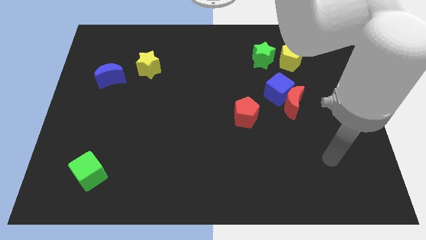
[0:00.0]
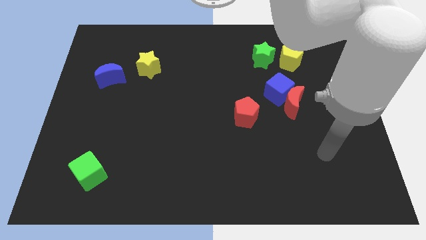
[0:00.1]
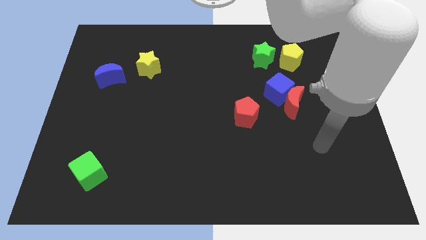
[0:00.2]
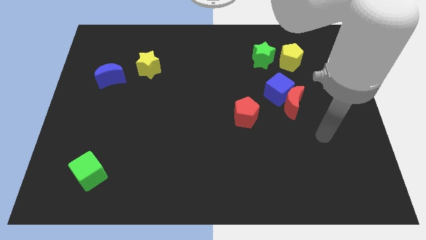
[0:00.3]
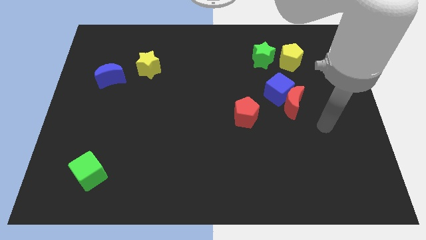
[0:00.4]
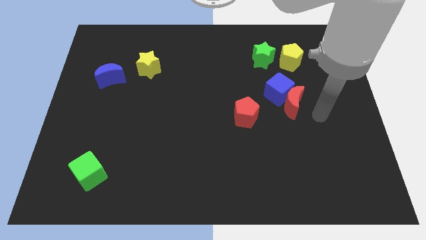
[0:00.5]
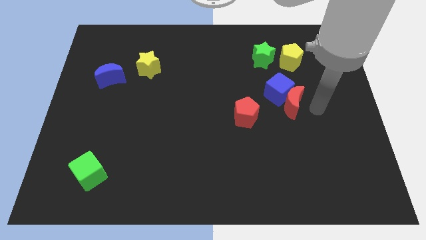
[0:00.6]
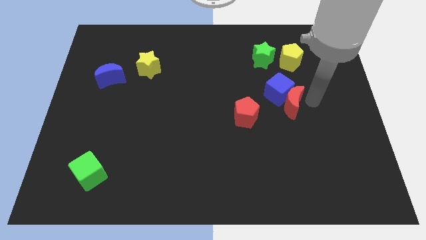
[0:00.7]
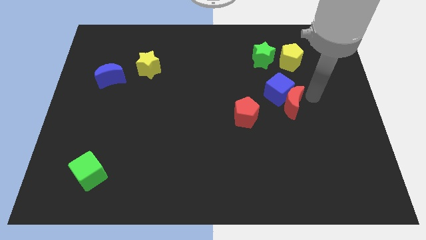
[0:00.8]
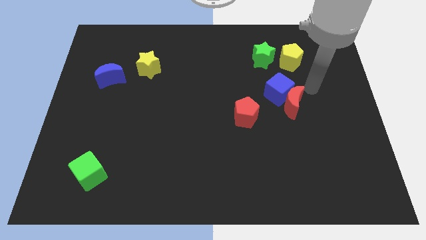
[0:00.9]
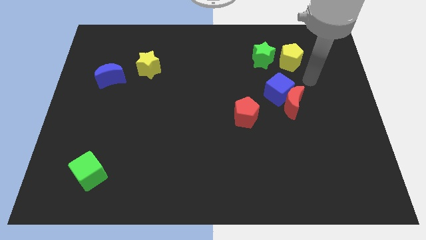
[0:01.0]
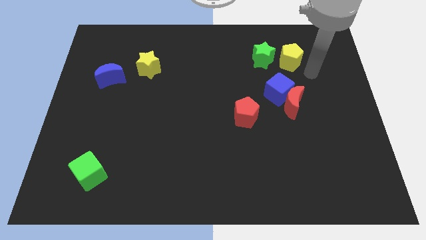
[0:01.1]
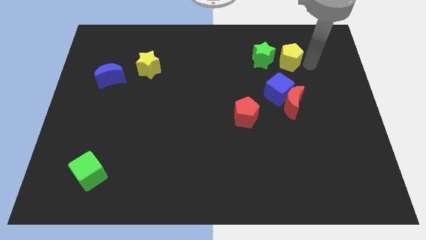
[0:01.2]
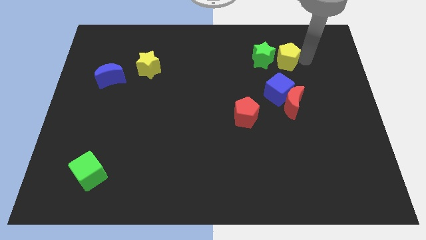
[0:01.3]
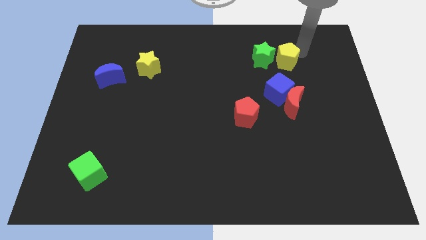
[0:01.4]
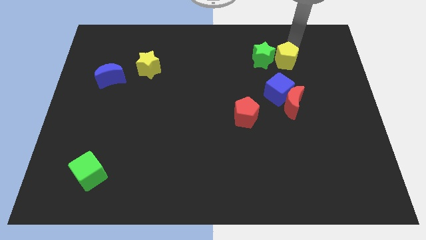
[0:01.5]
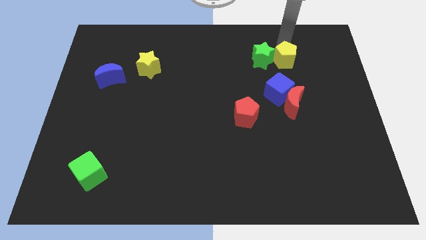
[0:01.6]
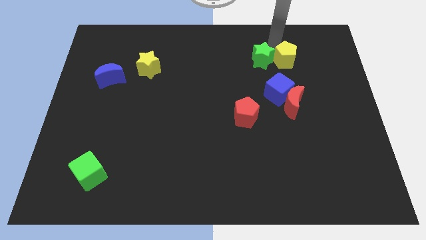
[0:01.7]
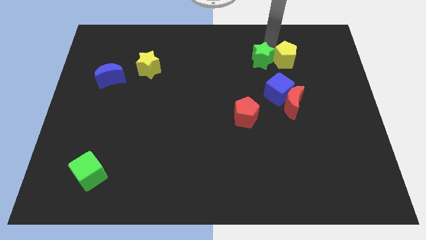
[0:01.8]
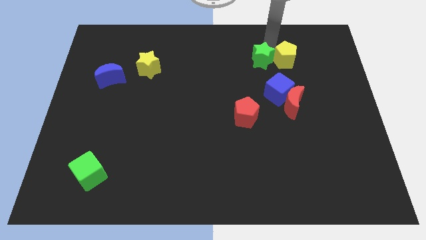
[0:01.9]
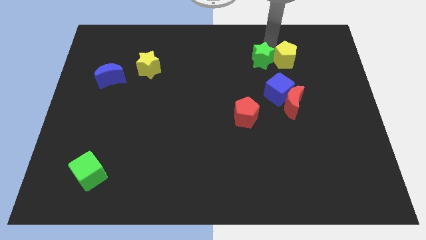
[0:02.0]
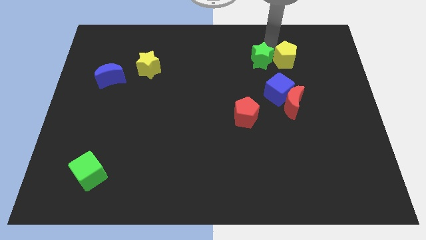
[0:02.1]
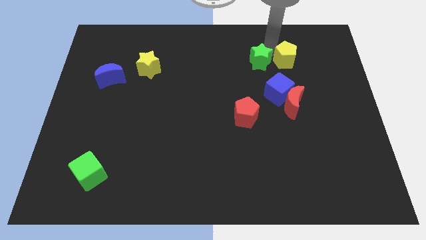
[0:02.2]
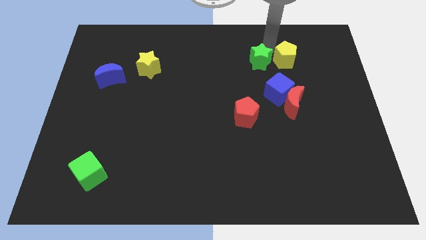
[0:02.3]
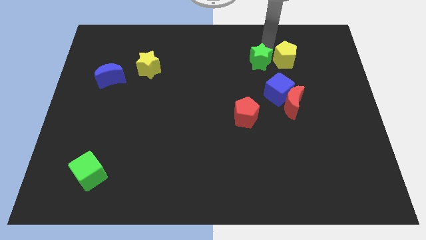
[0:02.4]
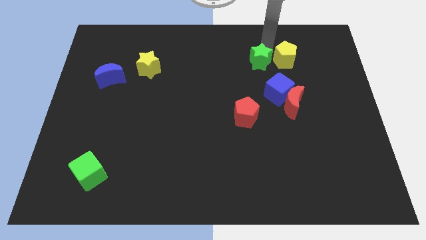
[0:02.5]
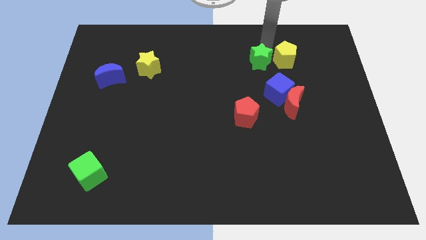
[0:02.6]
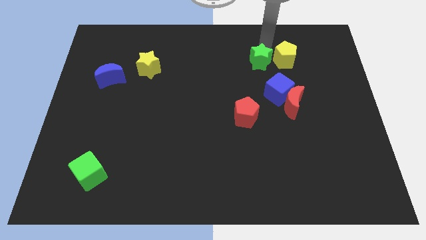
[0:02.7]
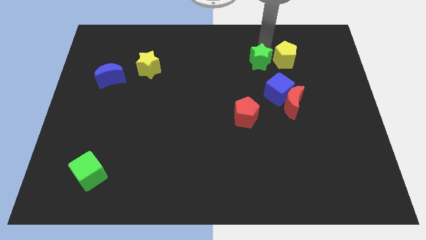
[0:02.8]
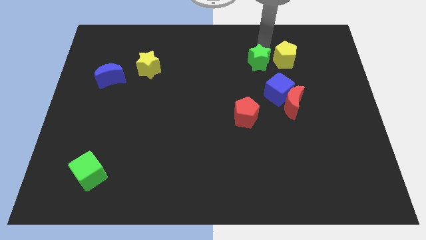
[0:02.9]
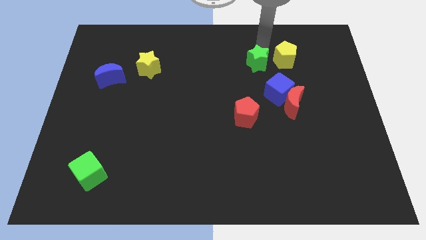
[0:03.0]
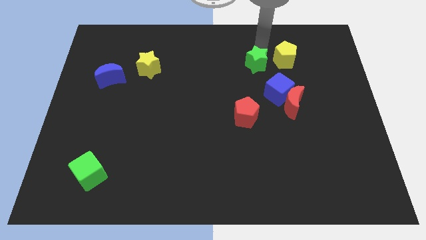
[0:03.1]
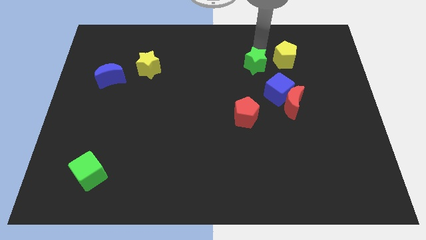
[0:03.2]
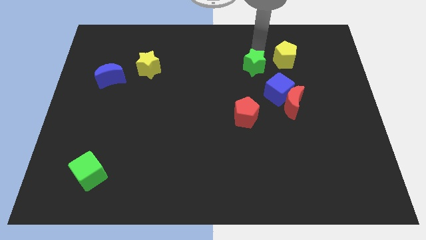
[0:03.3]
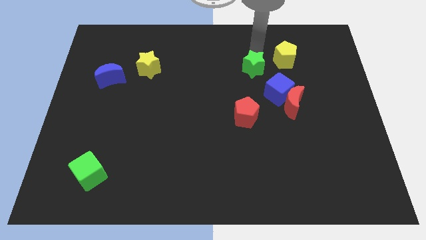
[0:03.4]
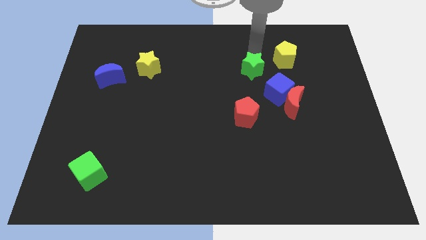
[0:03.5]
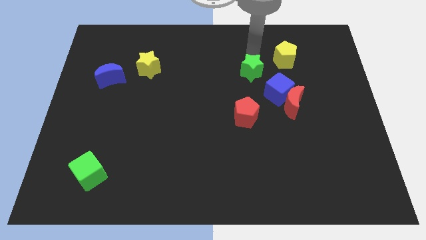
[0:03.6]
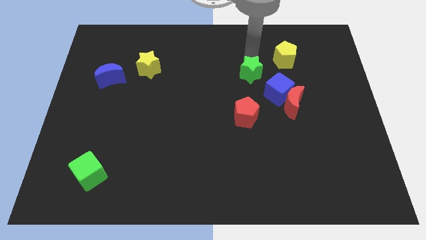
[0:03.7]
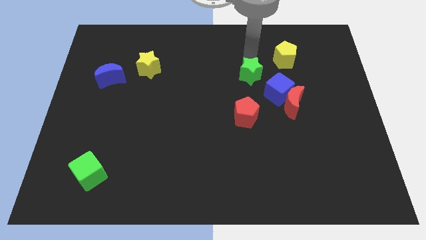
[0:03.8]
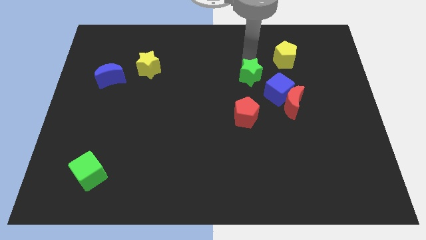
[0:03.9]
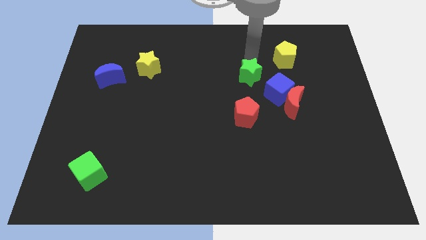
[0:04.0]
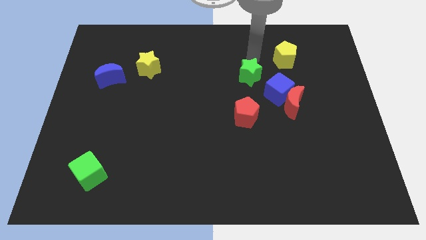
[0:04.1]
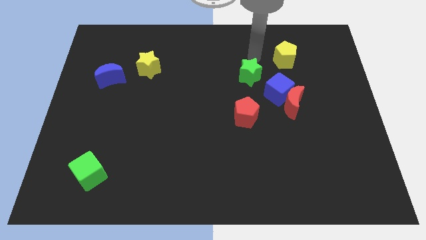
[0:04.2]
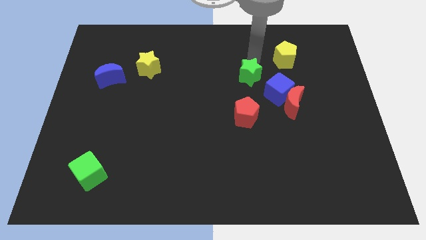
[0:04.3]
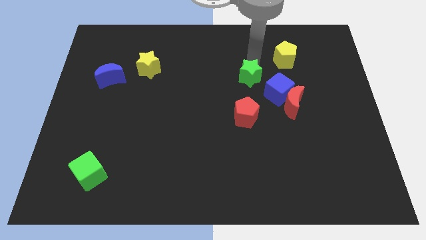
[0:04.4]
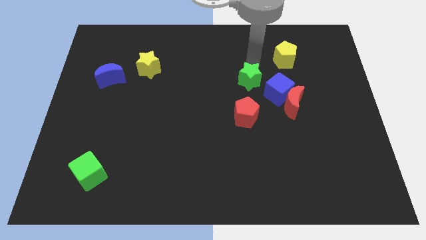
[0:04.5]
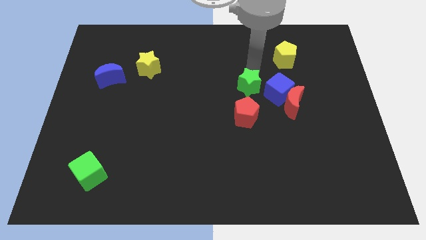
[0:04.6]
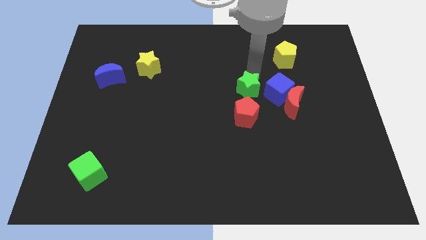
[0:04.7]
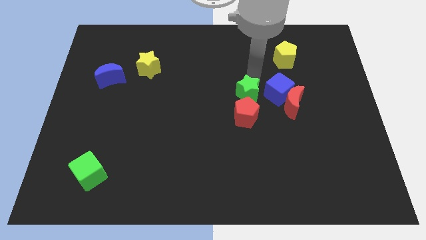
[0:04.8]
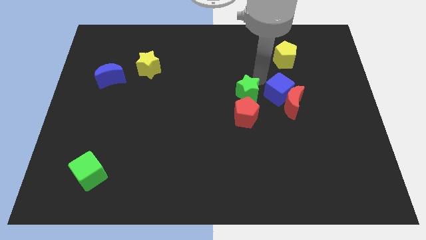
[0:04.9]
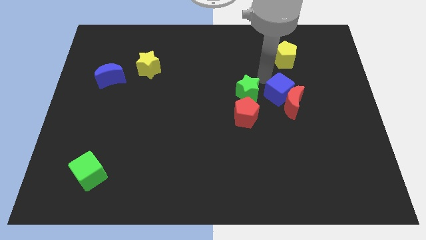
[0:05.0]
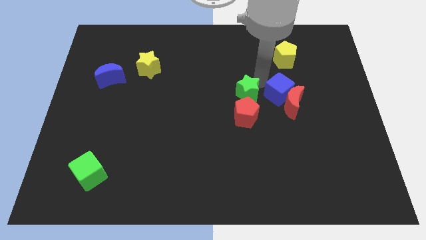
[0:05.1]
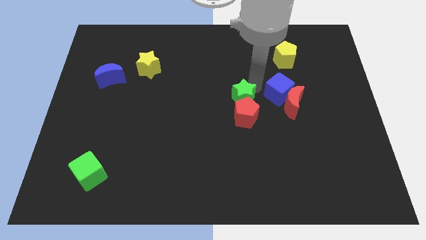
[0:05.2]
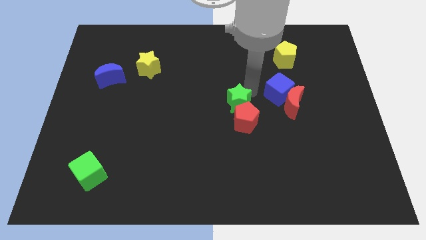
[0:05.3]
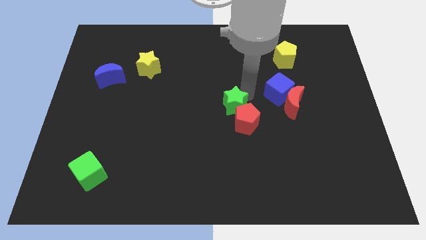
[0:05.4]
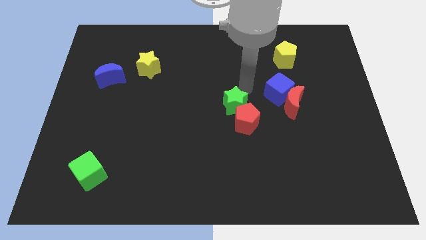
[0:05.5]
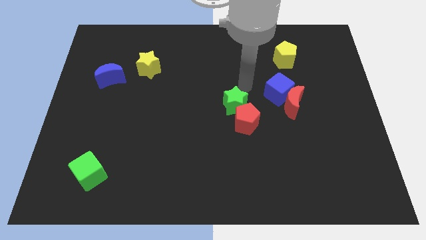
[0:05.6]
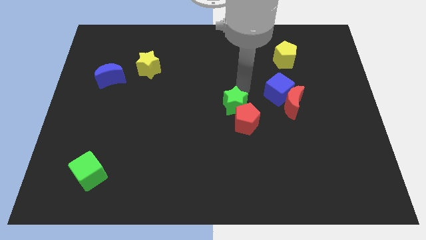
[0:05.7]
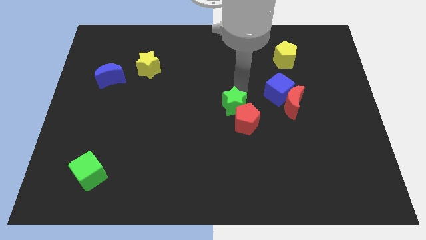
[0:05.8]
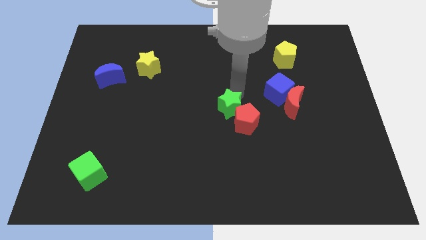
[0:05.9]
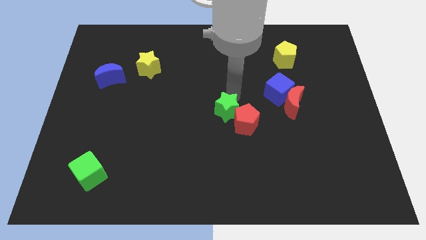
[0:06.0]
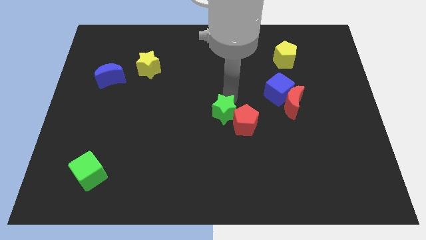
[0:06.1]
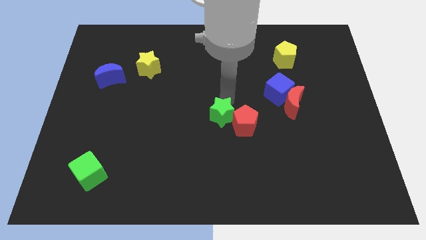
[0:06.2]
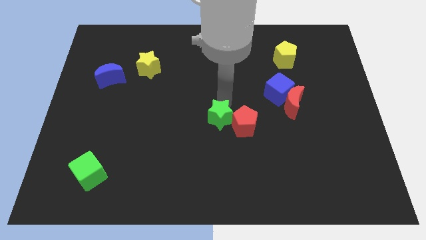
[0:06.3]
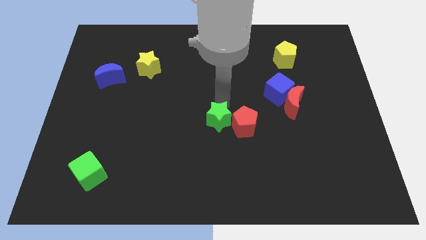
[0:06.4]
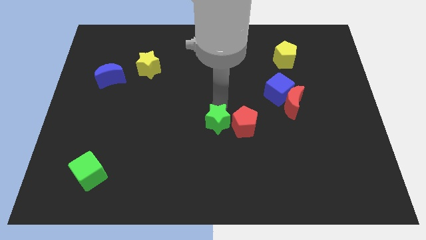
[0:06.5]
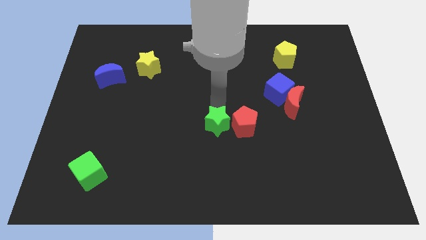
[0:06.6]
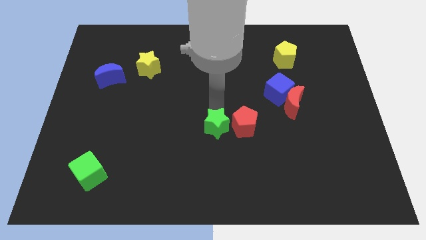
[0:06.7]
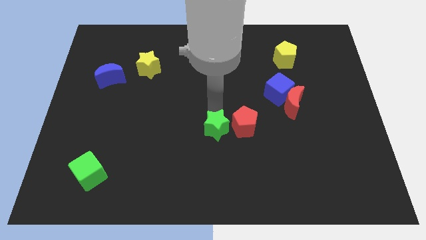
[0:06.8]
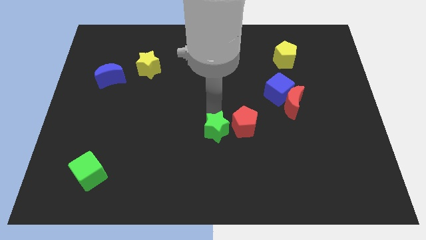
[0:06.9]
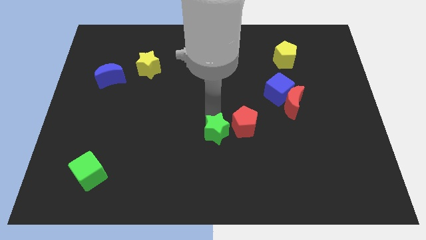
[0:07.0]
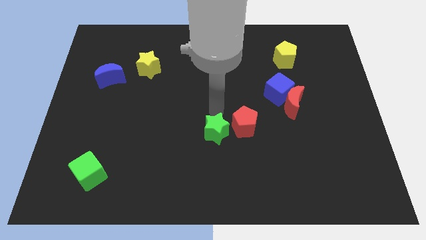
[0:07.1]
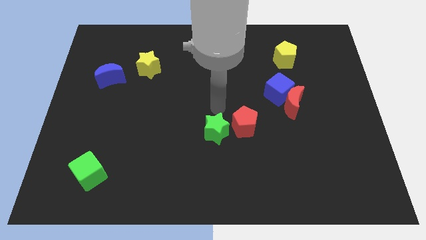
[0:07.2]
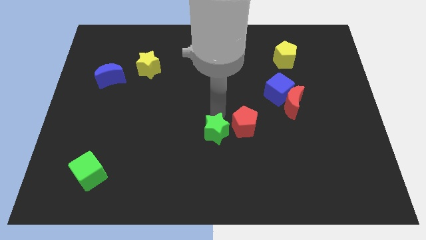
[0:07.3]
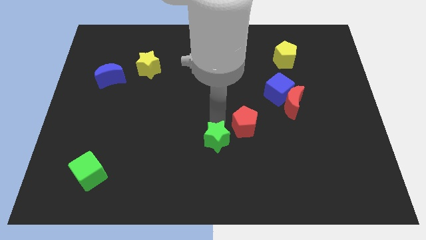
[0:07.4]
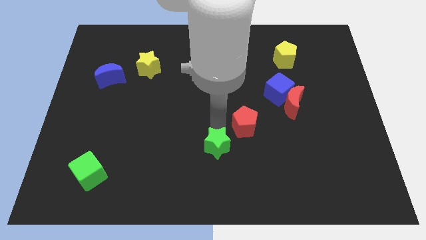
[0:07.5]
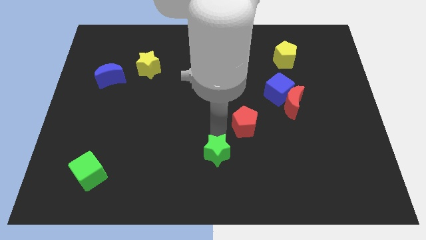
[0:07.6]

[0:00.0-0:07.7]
put the green star to the bottom
